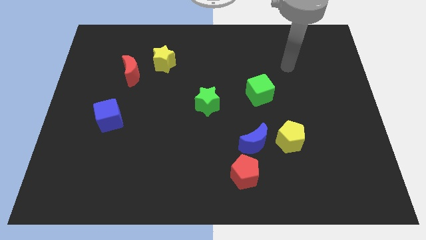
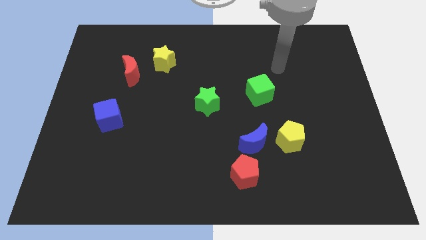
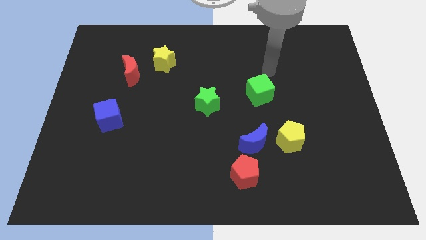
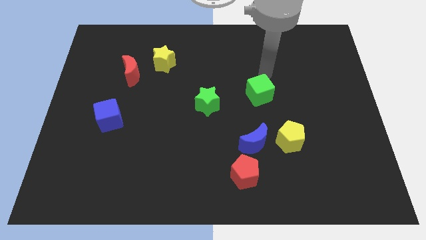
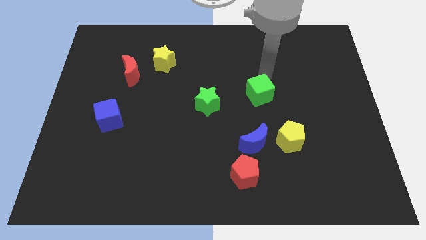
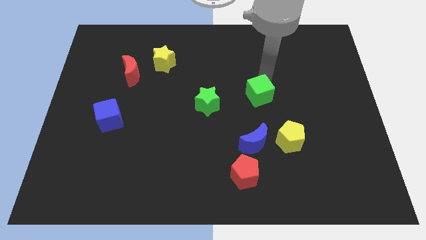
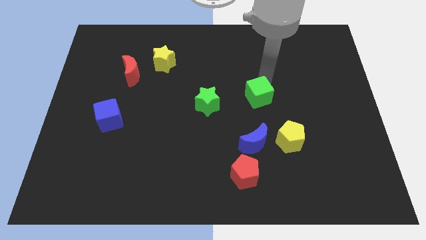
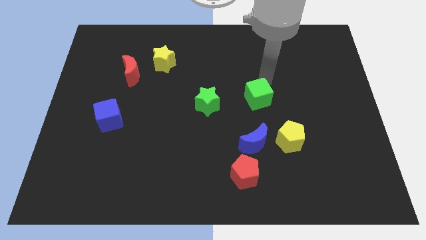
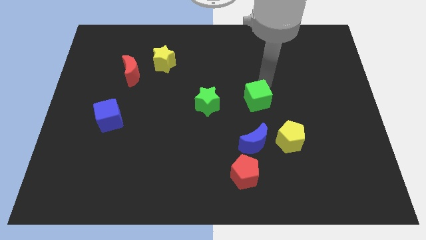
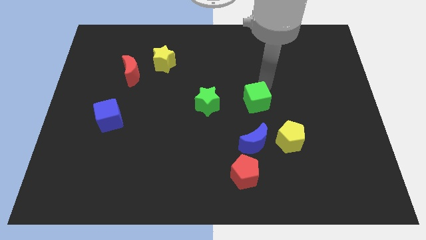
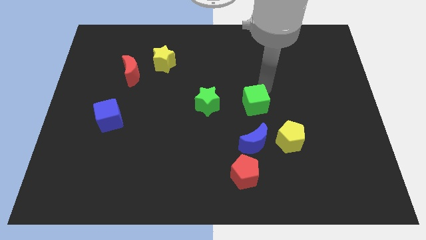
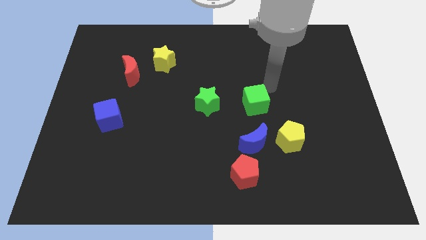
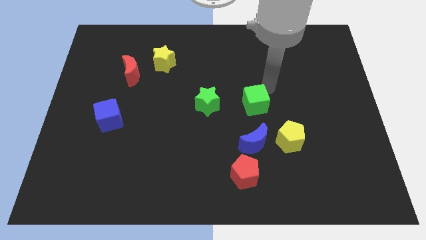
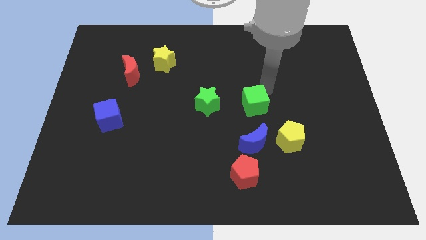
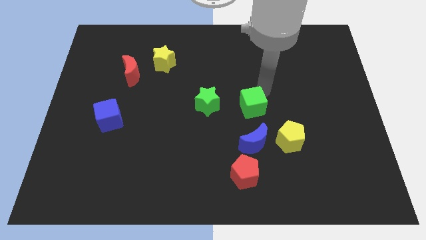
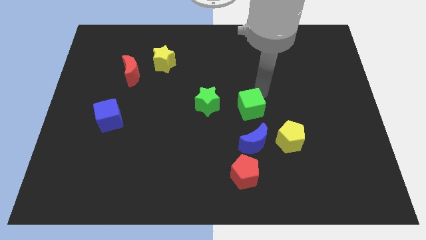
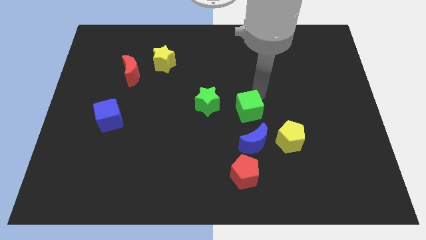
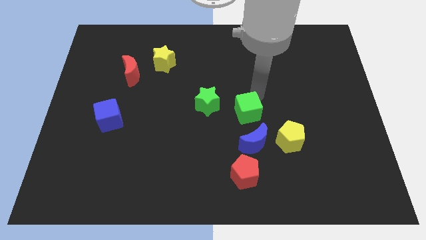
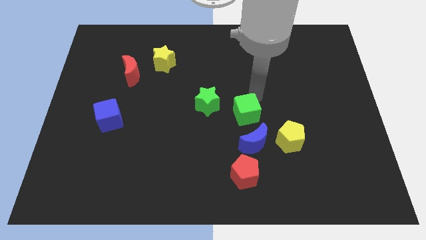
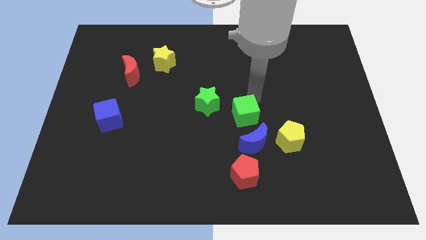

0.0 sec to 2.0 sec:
push the green cube downwards and to the left somewhat

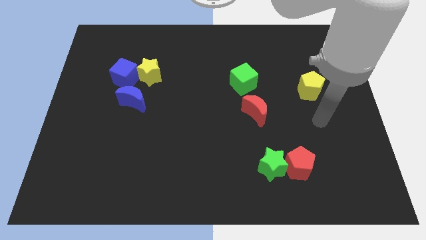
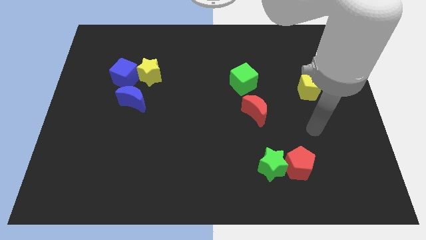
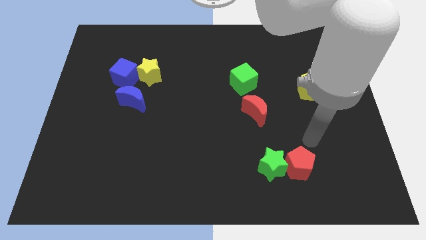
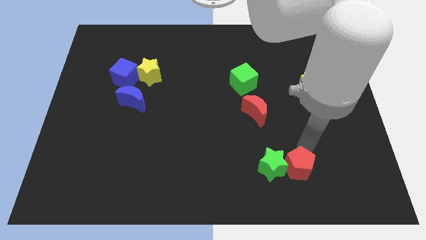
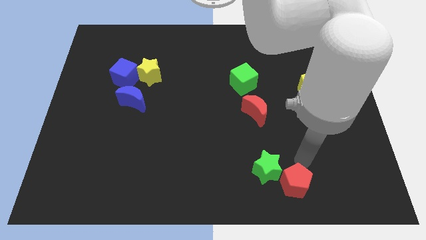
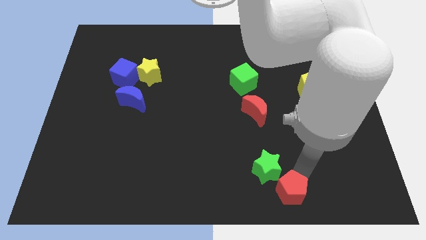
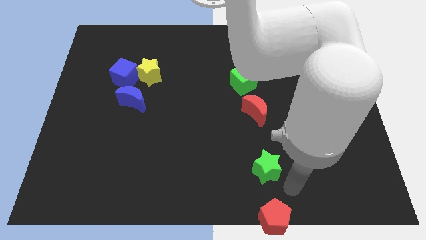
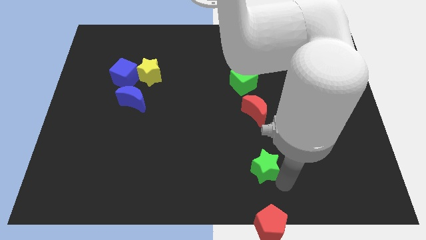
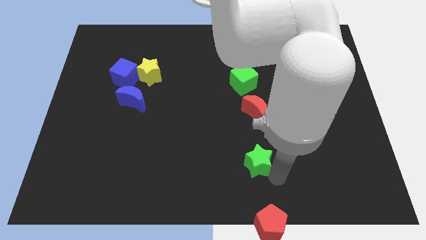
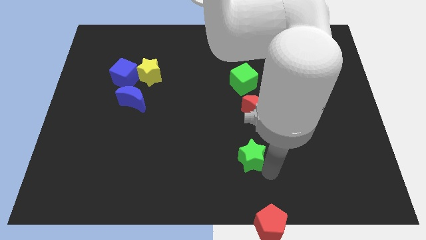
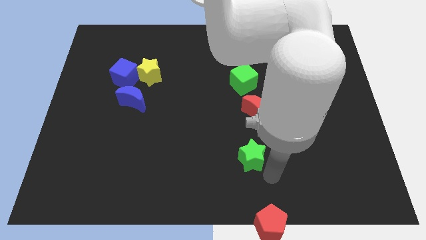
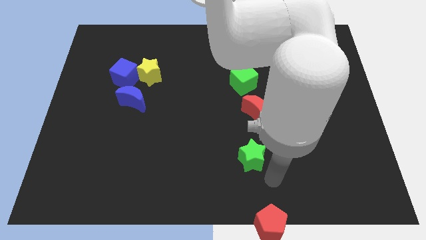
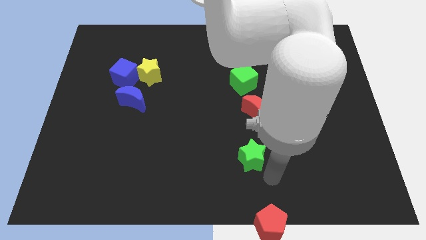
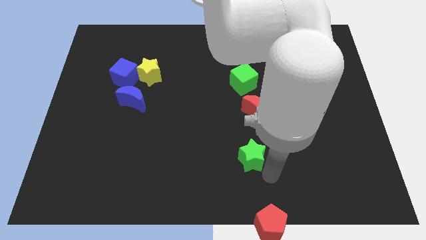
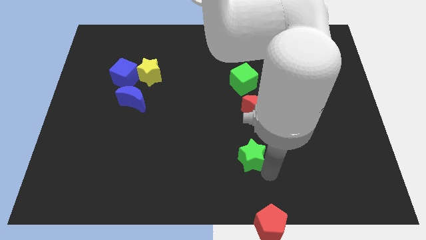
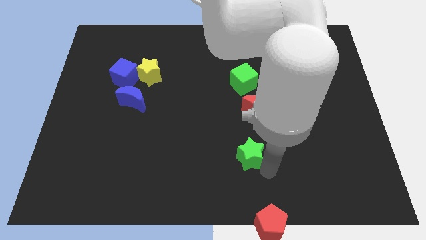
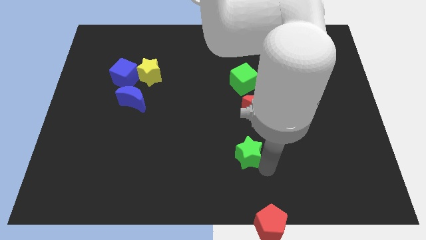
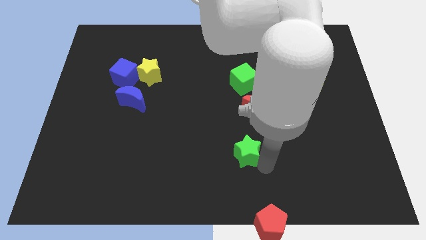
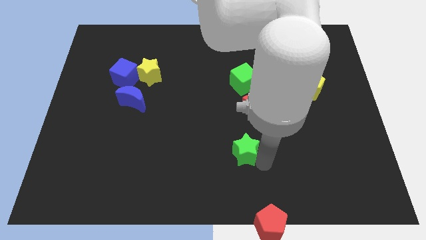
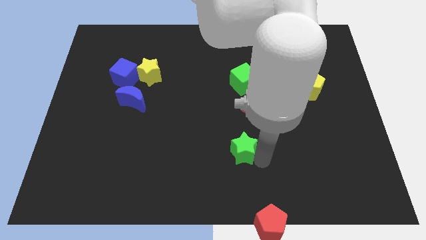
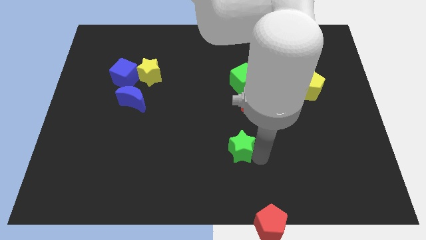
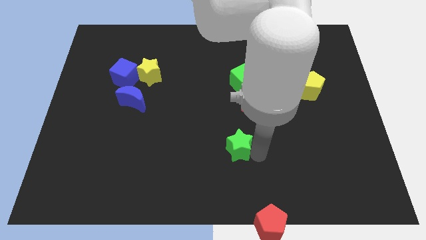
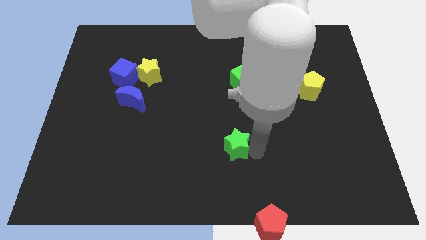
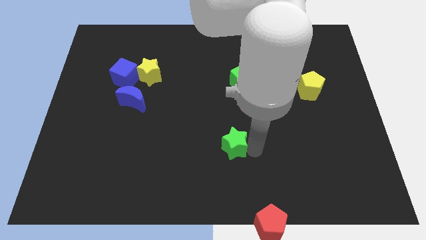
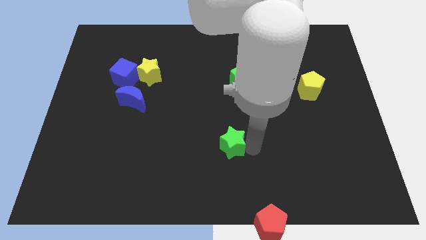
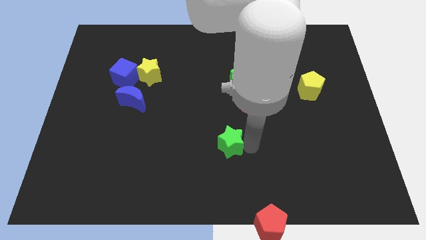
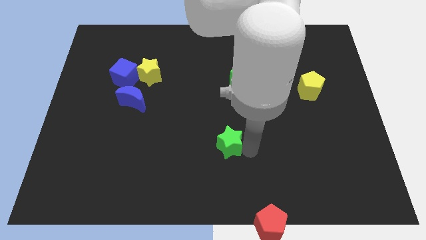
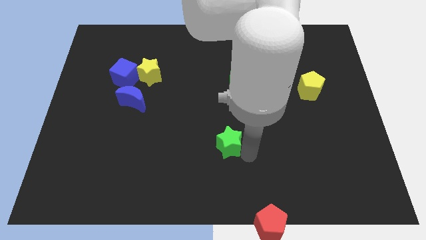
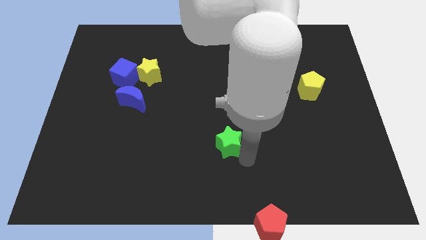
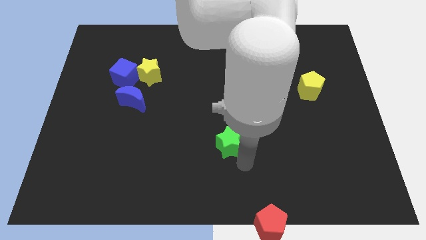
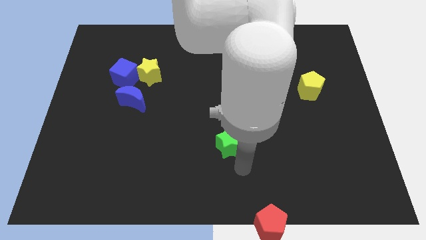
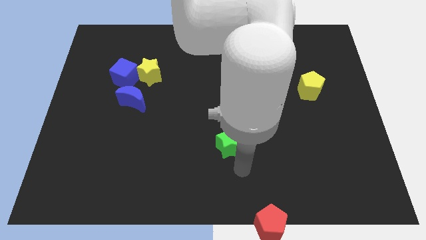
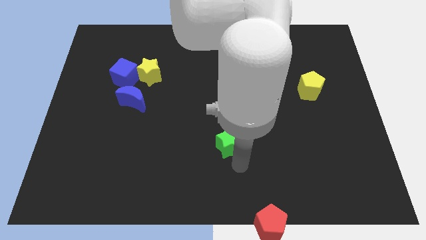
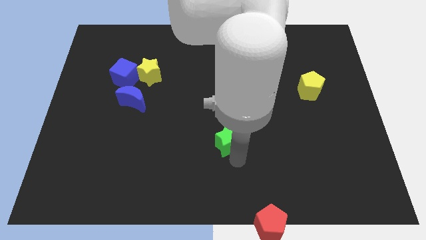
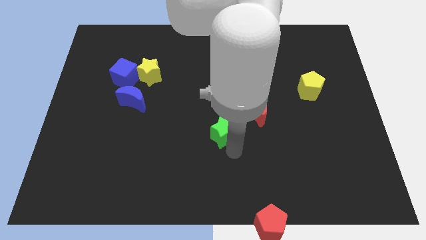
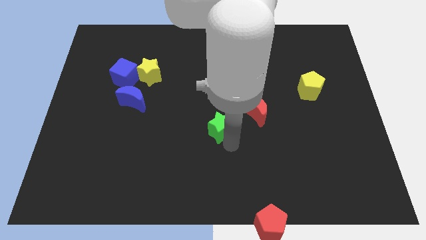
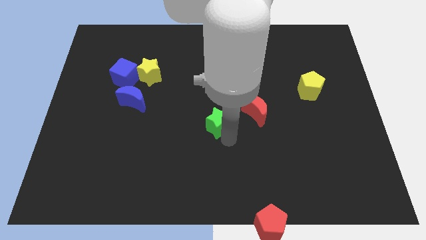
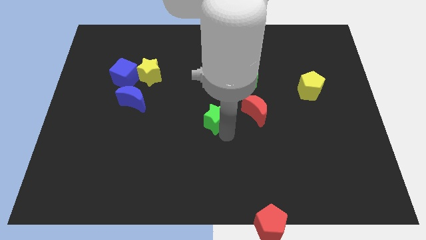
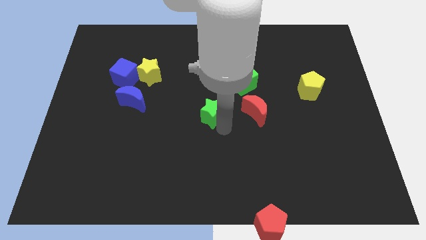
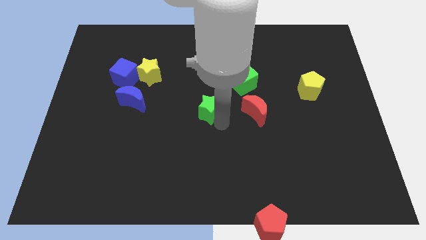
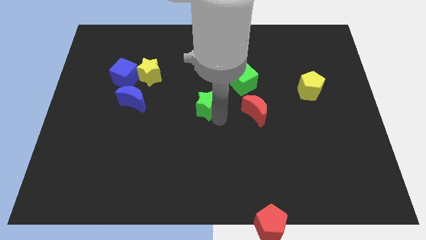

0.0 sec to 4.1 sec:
move the green star upwards and then to the left

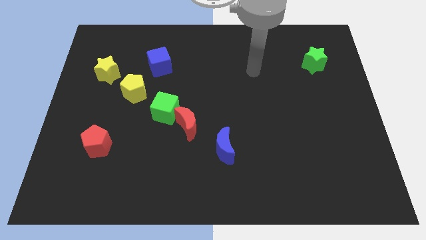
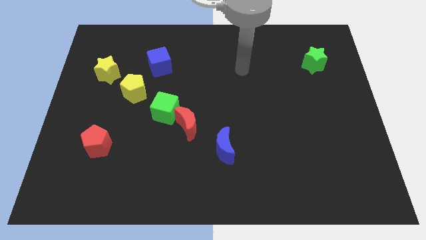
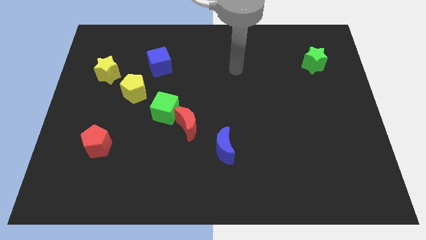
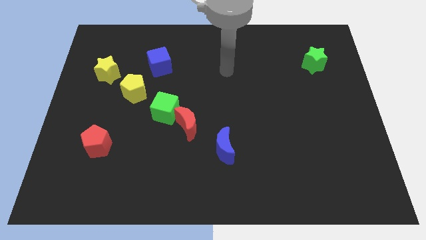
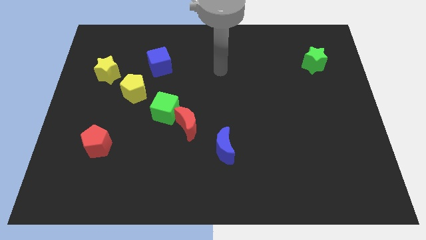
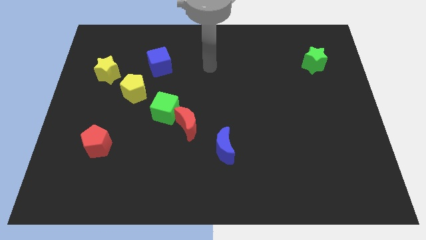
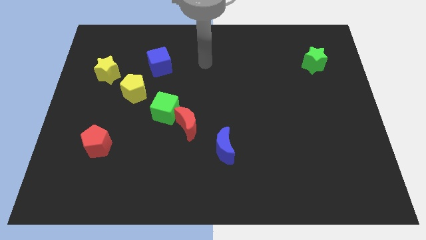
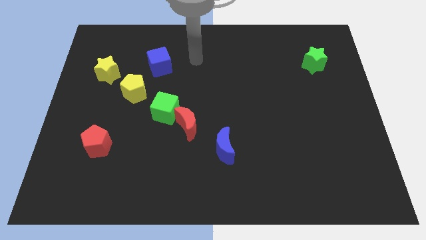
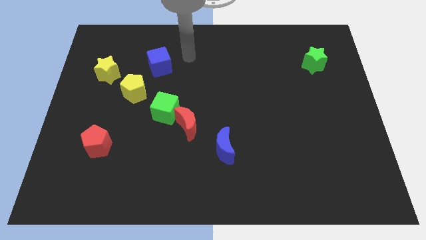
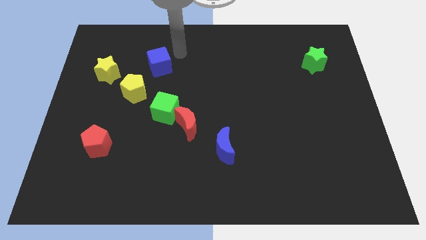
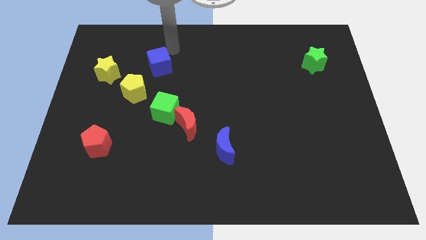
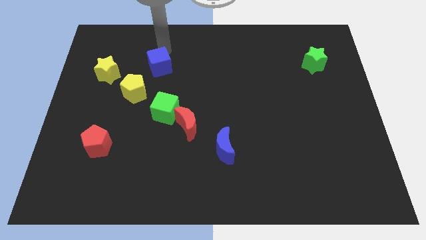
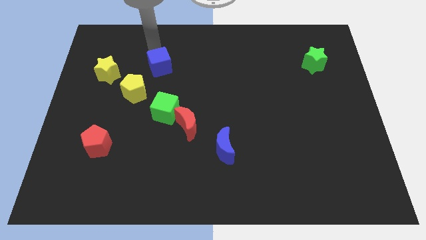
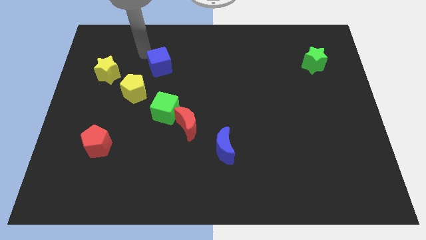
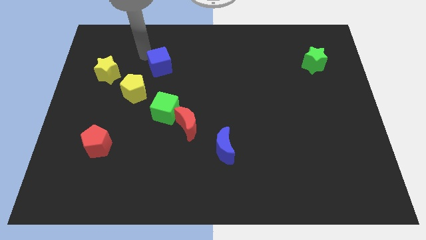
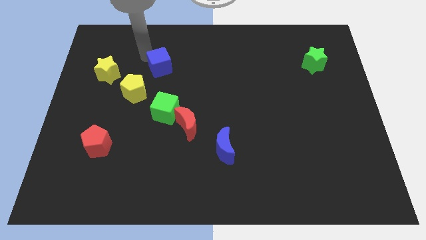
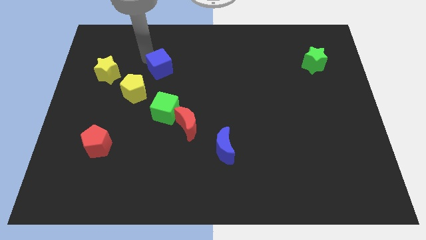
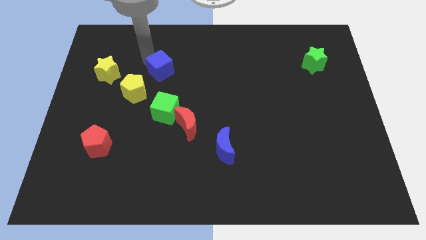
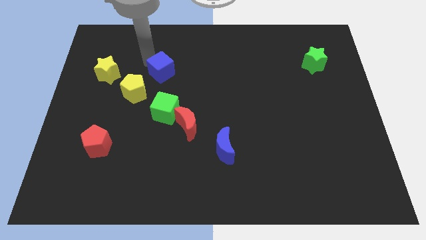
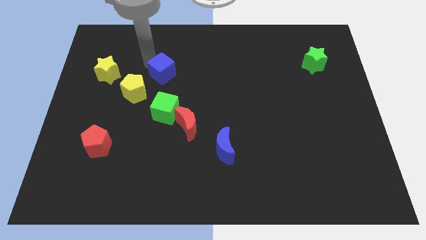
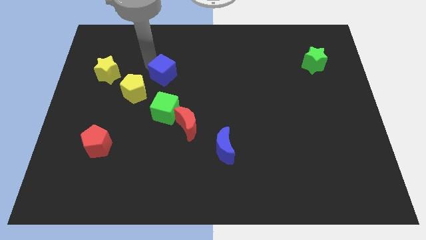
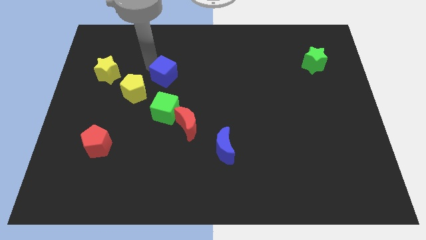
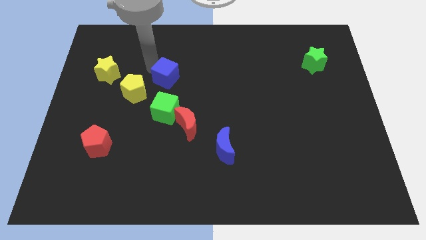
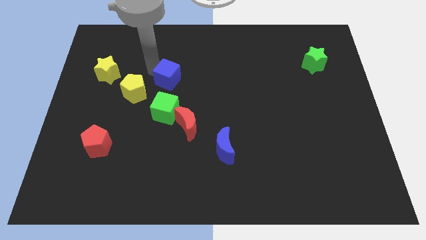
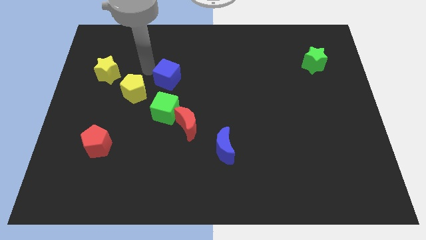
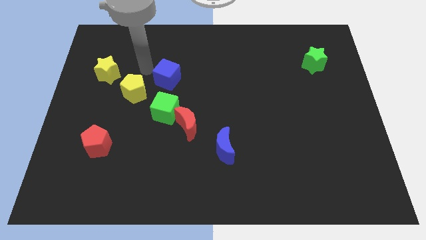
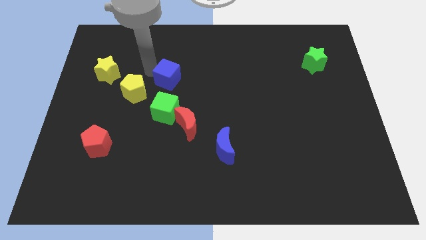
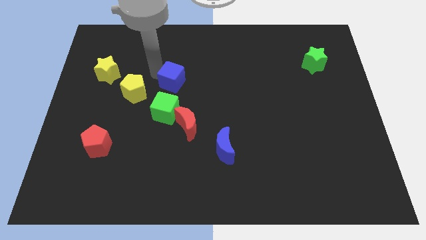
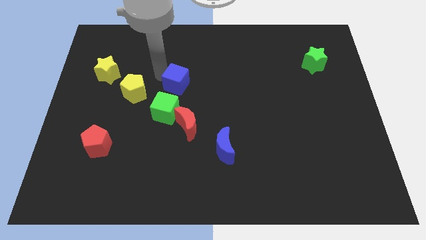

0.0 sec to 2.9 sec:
slide the blue cube down and to the right a bit
